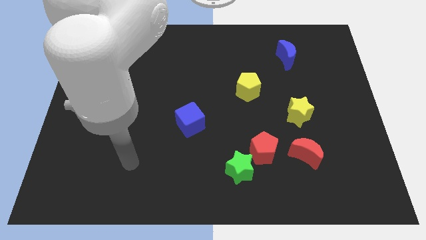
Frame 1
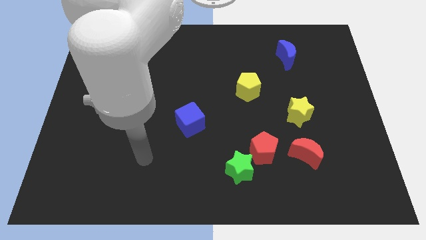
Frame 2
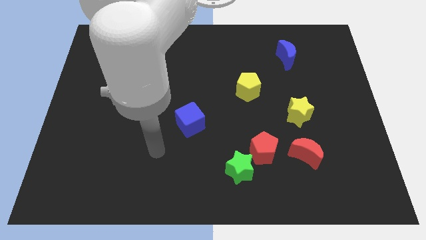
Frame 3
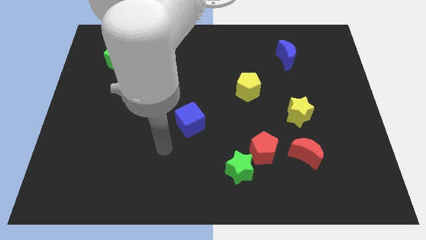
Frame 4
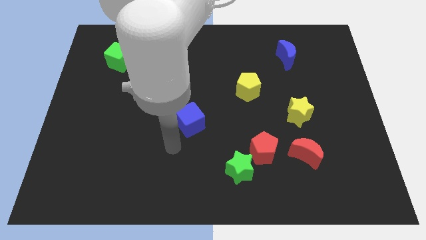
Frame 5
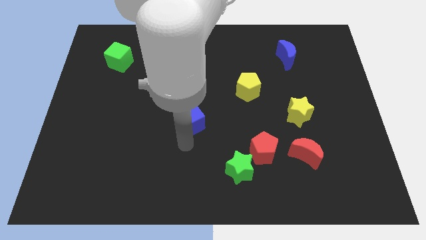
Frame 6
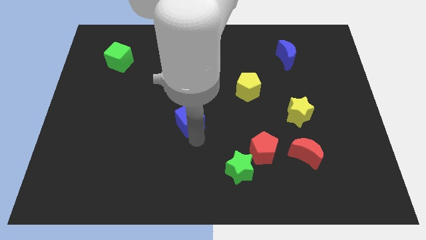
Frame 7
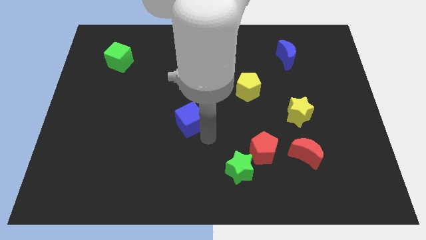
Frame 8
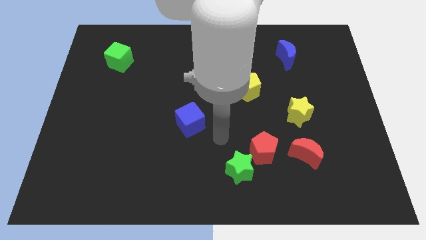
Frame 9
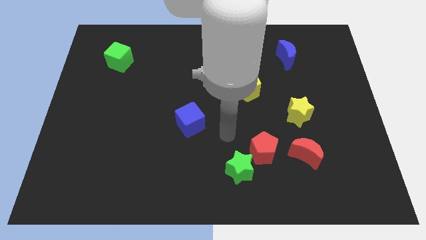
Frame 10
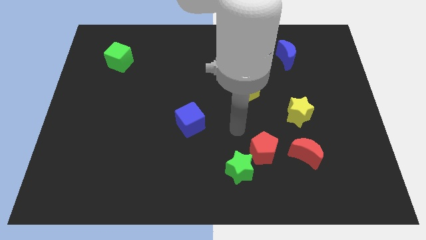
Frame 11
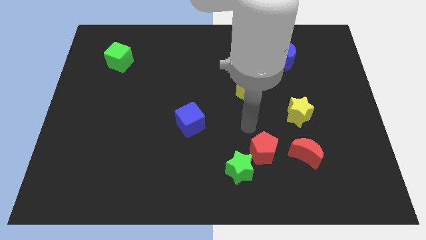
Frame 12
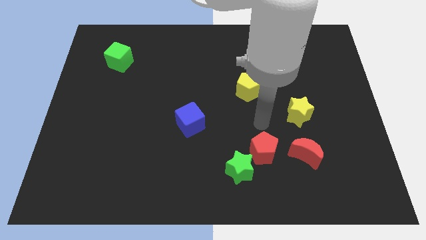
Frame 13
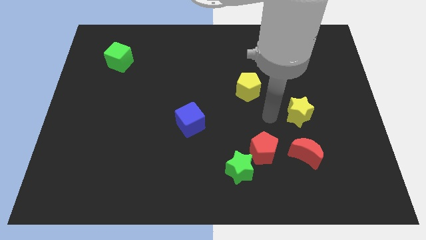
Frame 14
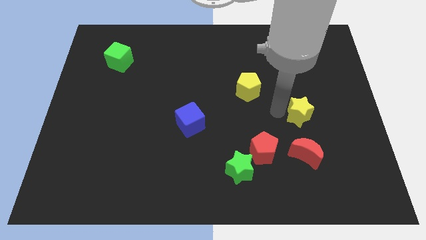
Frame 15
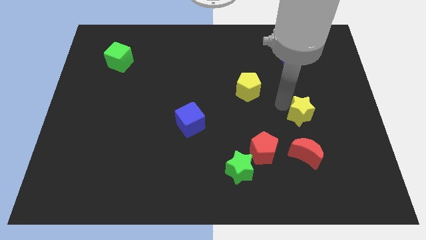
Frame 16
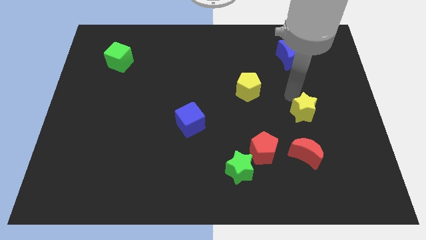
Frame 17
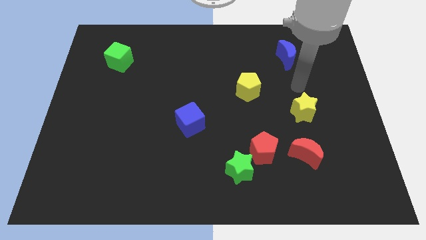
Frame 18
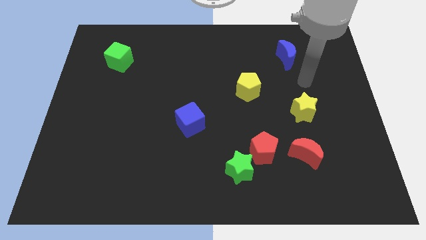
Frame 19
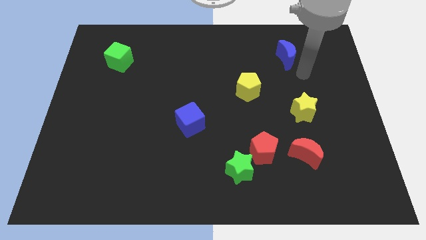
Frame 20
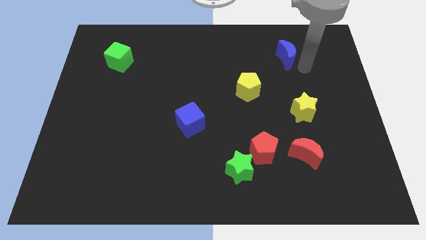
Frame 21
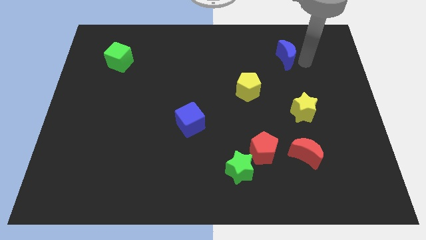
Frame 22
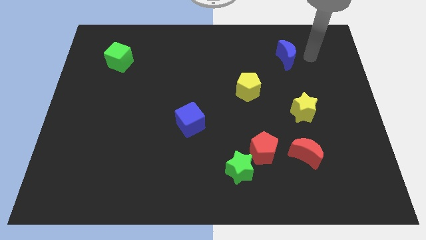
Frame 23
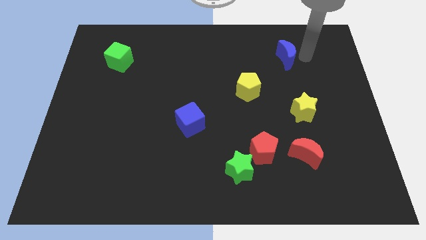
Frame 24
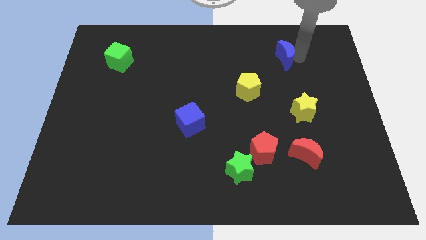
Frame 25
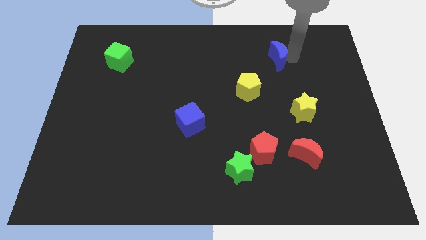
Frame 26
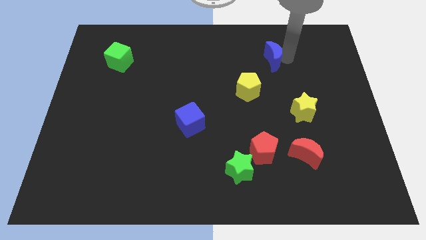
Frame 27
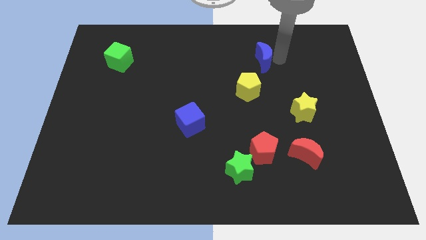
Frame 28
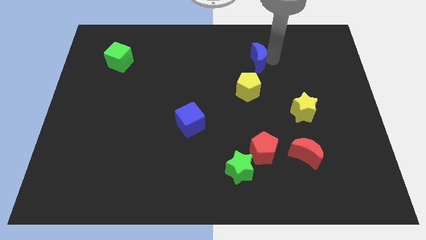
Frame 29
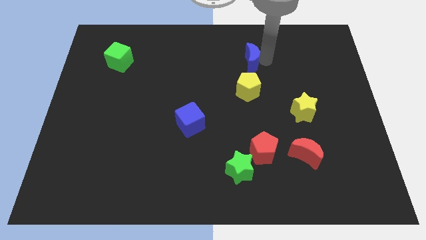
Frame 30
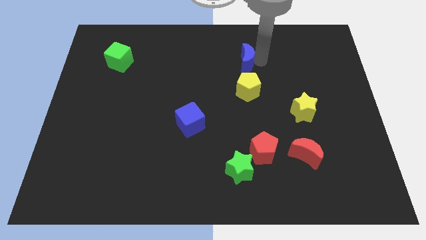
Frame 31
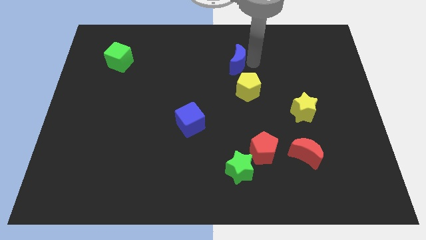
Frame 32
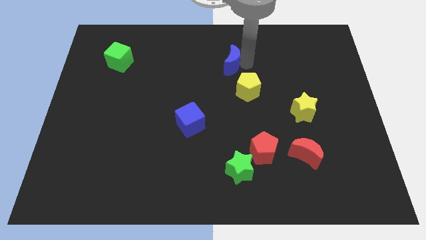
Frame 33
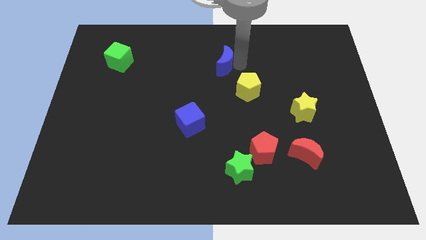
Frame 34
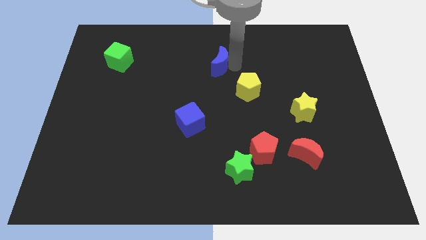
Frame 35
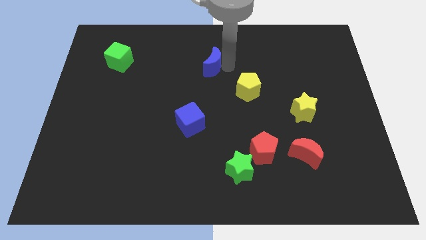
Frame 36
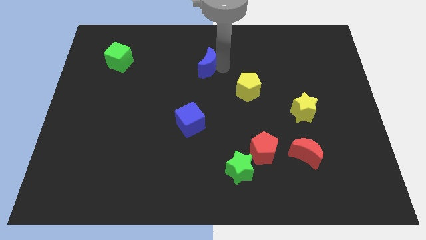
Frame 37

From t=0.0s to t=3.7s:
slide the blue moon left

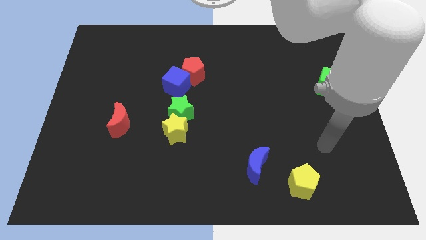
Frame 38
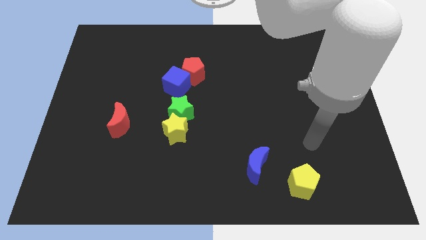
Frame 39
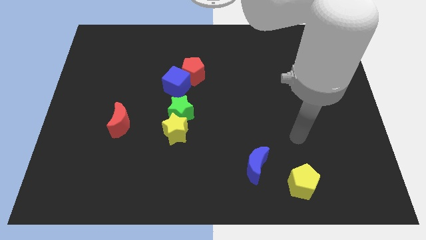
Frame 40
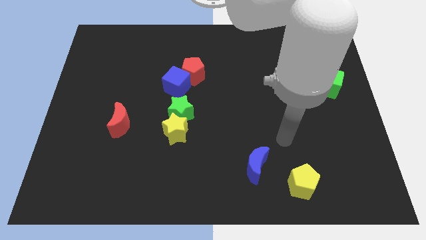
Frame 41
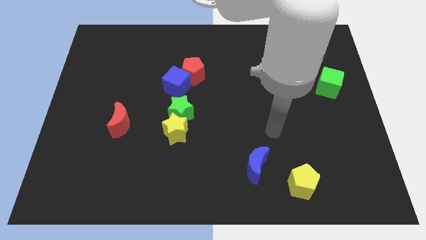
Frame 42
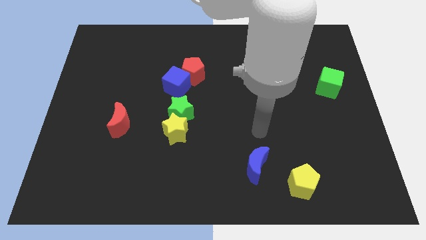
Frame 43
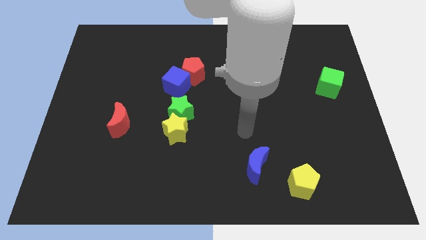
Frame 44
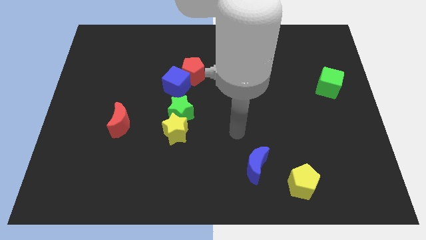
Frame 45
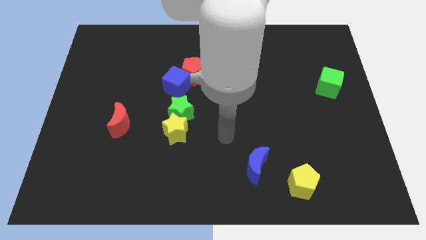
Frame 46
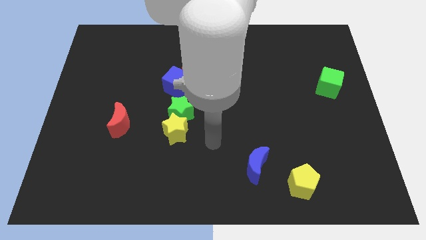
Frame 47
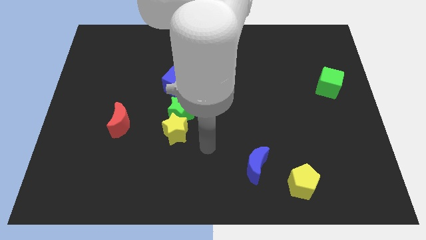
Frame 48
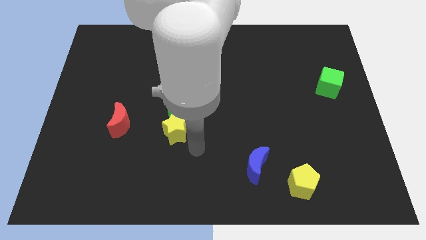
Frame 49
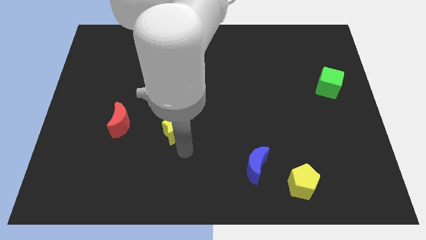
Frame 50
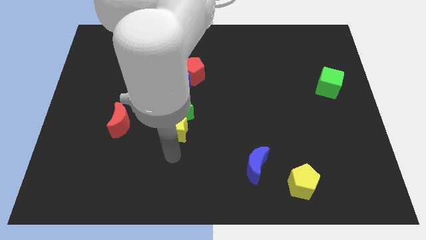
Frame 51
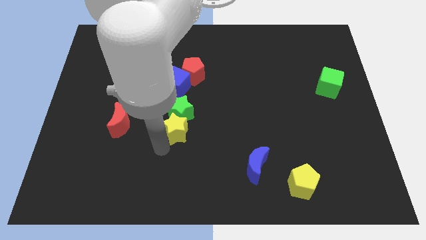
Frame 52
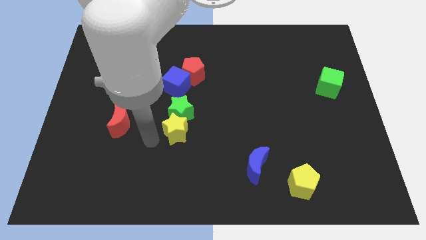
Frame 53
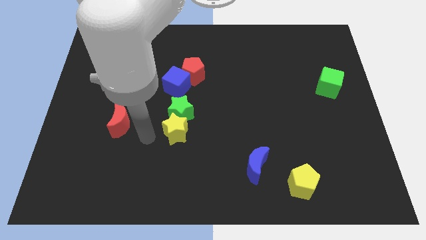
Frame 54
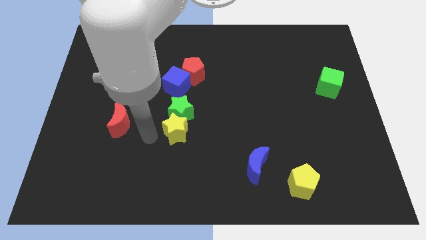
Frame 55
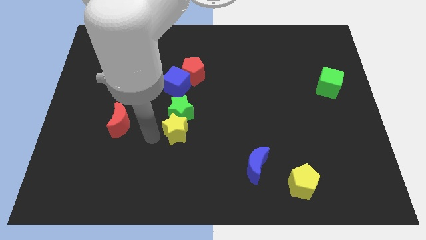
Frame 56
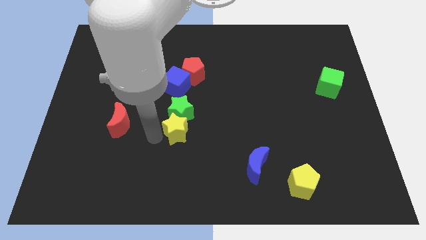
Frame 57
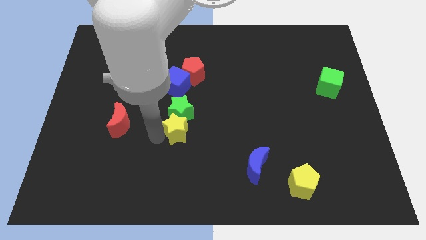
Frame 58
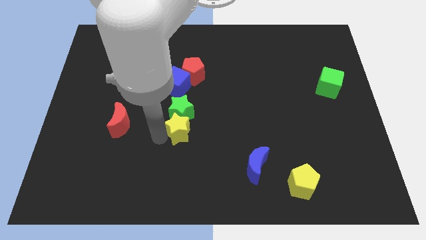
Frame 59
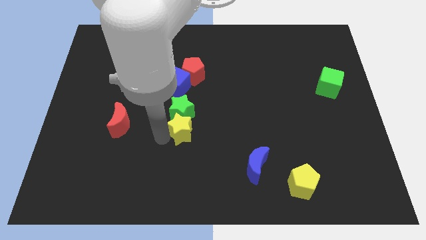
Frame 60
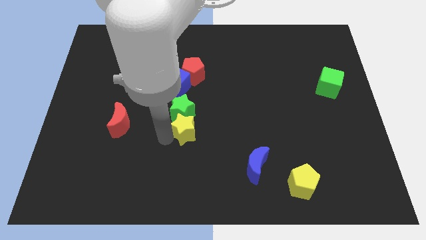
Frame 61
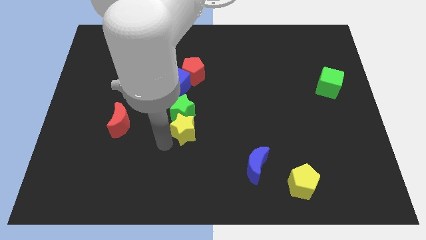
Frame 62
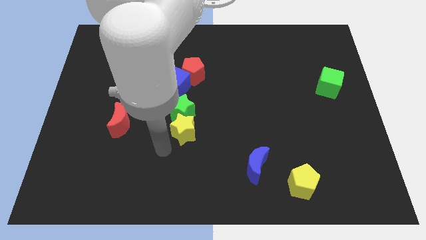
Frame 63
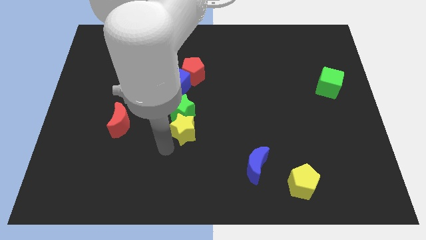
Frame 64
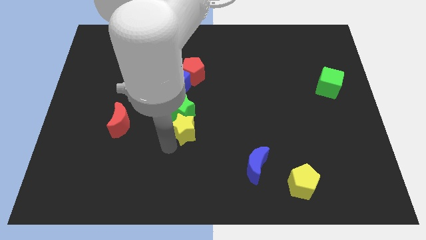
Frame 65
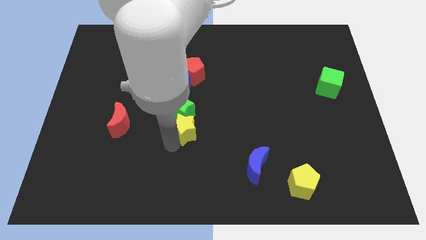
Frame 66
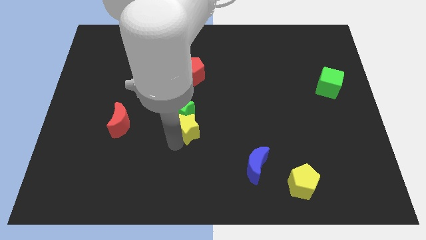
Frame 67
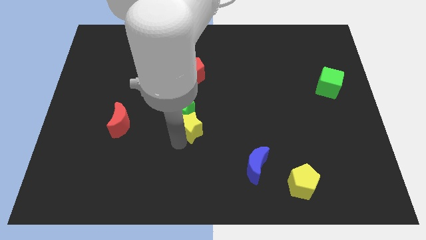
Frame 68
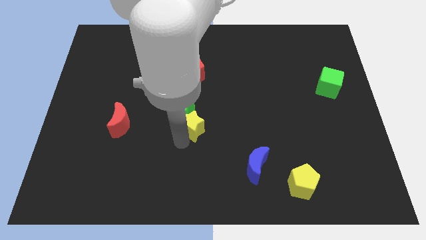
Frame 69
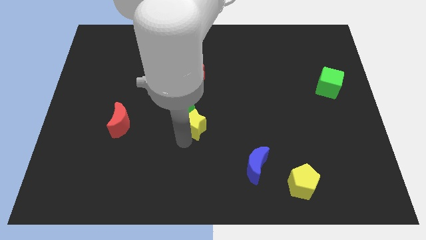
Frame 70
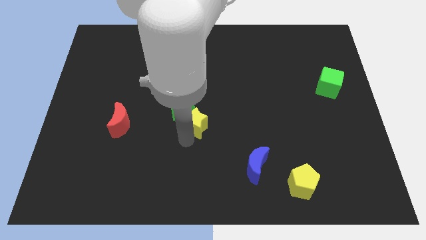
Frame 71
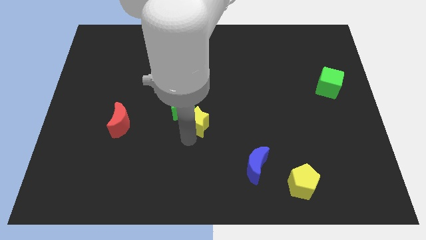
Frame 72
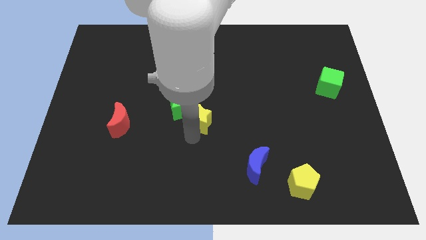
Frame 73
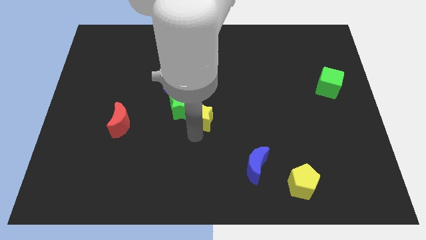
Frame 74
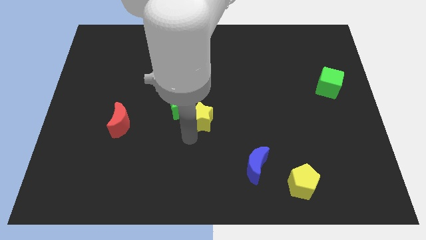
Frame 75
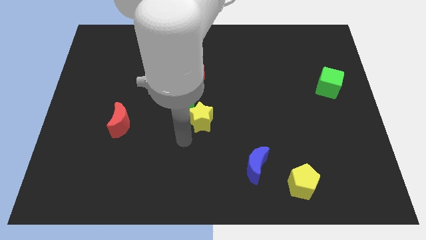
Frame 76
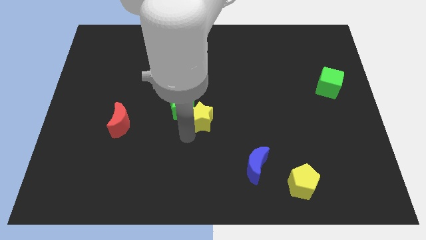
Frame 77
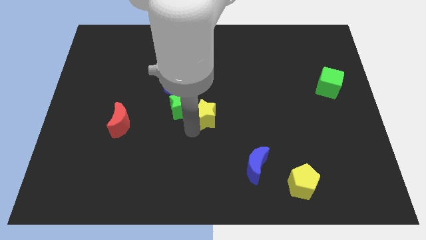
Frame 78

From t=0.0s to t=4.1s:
slightly move the yellow star upwards and then to the right
